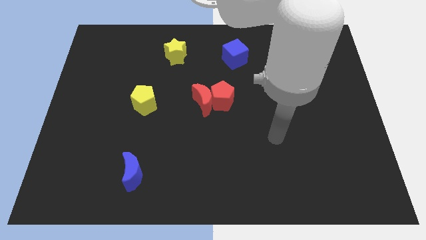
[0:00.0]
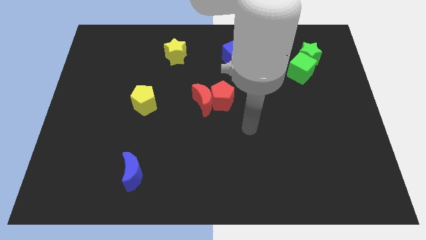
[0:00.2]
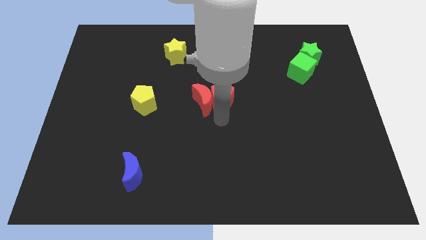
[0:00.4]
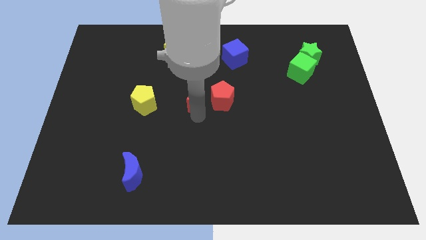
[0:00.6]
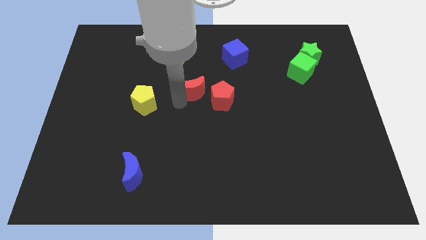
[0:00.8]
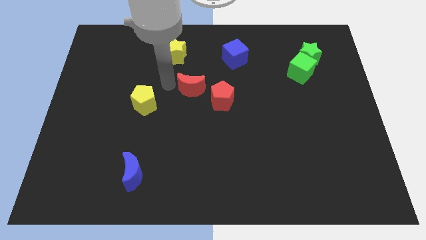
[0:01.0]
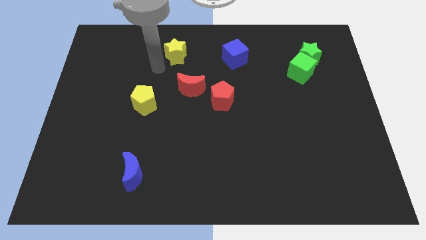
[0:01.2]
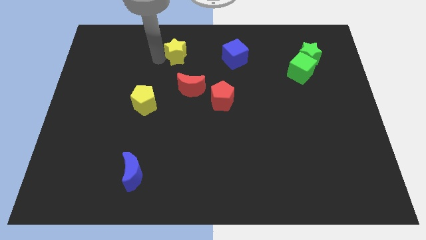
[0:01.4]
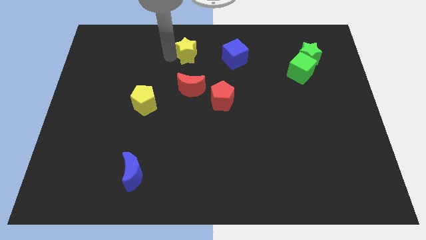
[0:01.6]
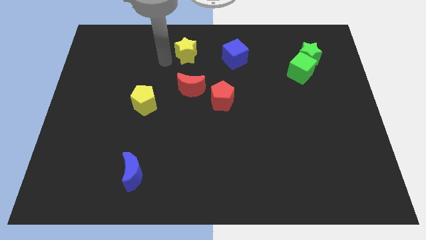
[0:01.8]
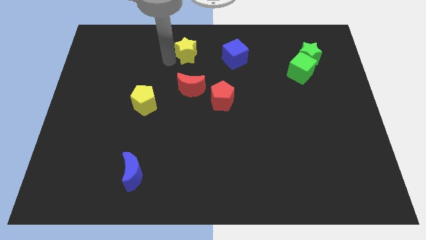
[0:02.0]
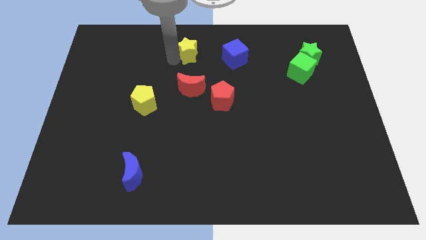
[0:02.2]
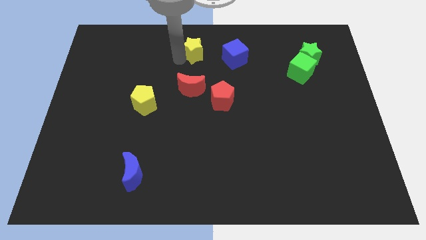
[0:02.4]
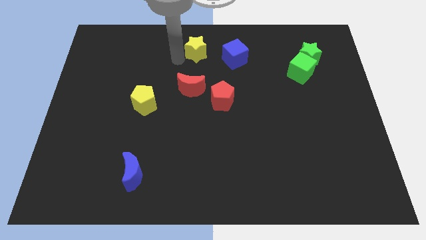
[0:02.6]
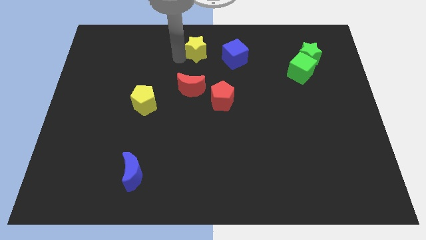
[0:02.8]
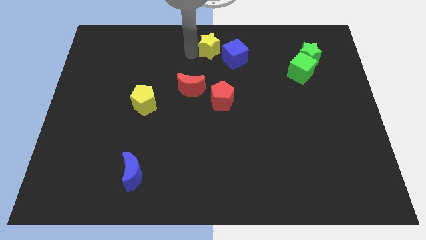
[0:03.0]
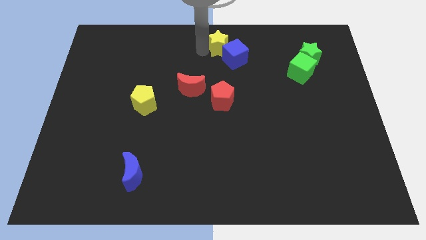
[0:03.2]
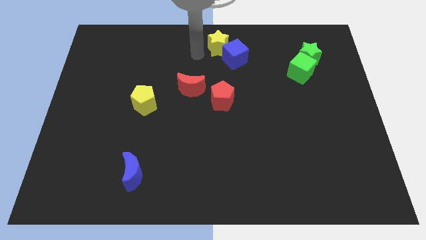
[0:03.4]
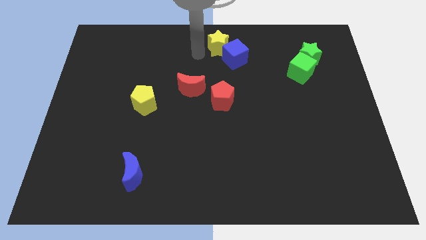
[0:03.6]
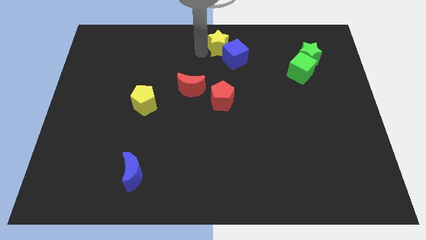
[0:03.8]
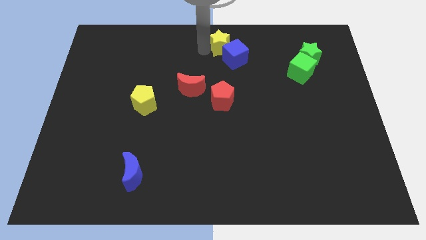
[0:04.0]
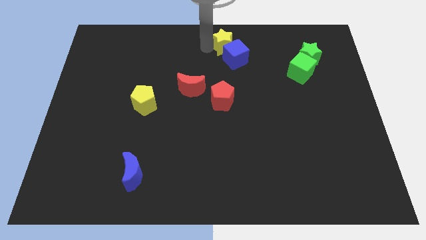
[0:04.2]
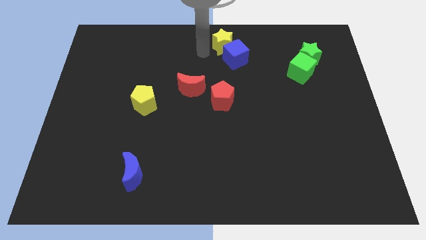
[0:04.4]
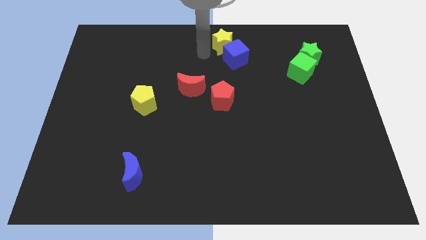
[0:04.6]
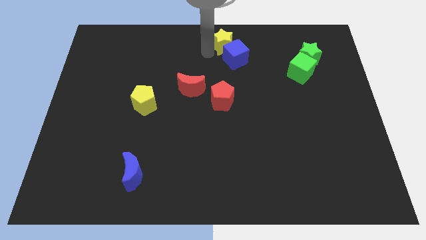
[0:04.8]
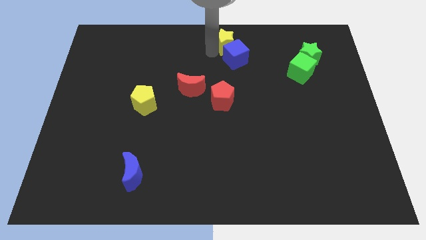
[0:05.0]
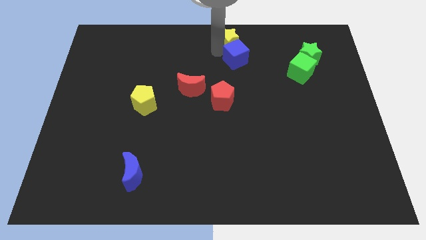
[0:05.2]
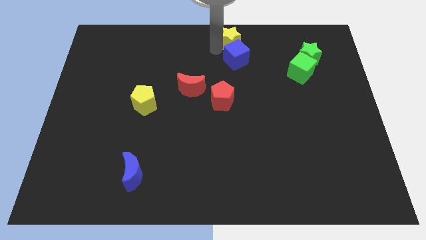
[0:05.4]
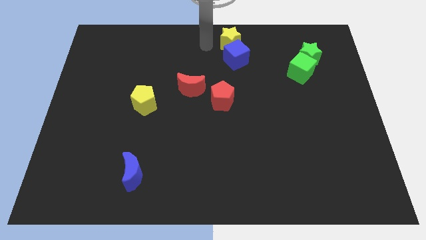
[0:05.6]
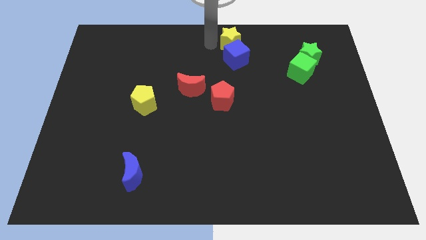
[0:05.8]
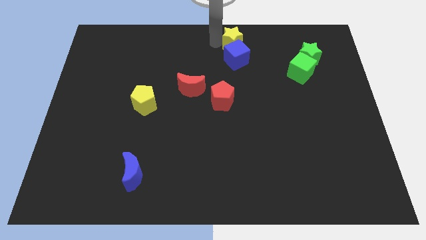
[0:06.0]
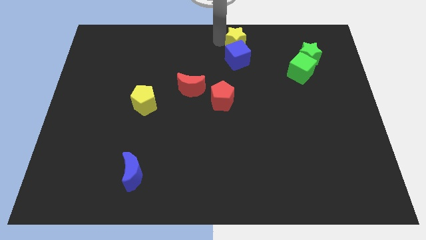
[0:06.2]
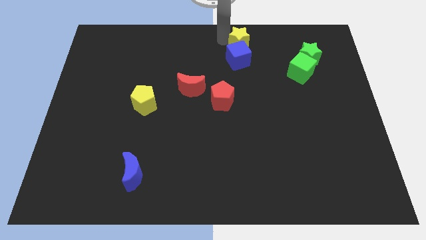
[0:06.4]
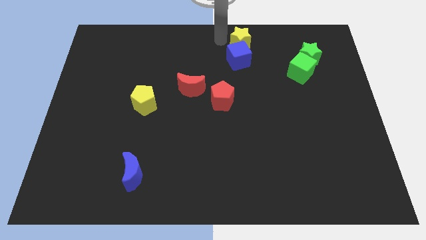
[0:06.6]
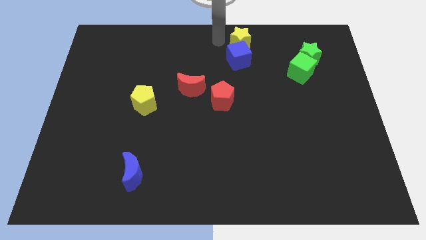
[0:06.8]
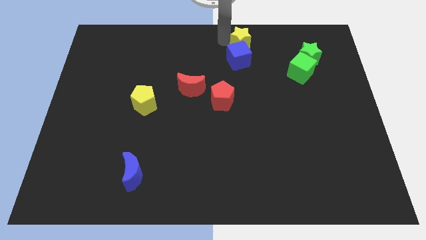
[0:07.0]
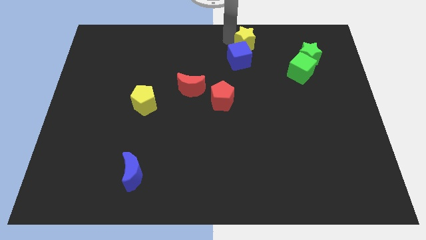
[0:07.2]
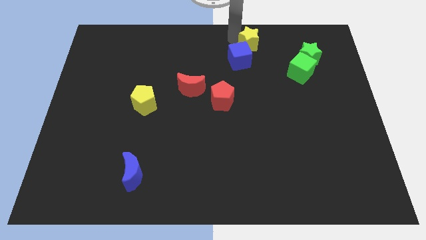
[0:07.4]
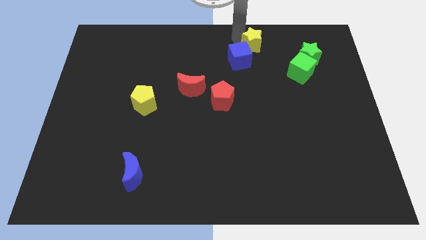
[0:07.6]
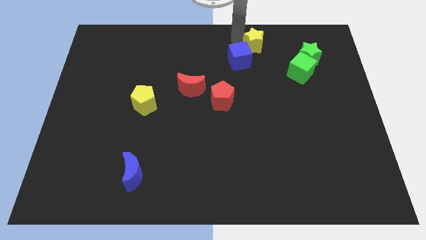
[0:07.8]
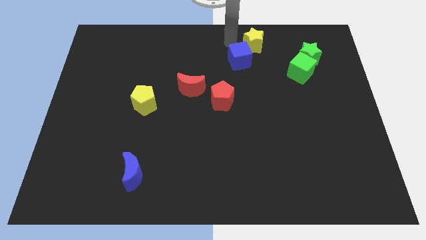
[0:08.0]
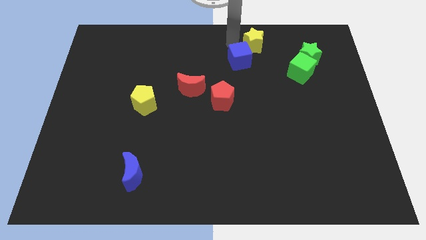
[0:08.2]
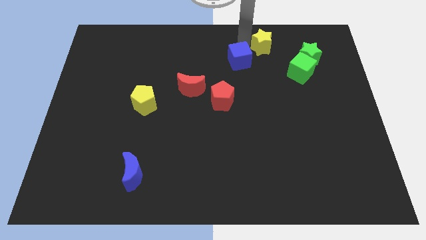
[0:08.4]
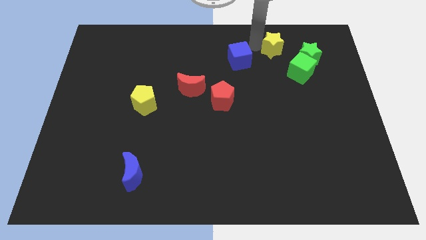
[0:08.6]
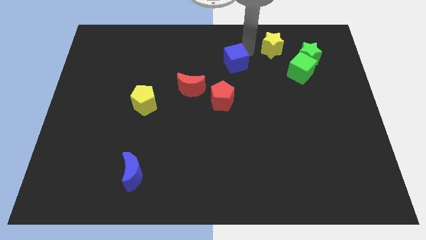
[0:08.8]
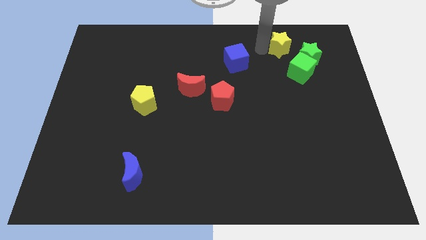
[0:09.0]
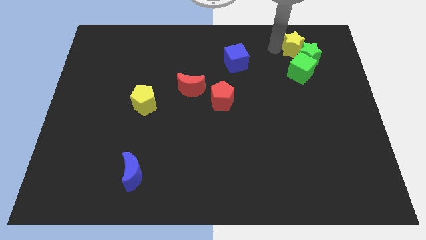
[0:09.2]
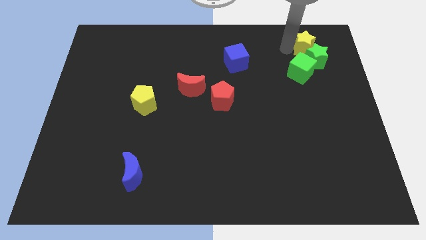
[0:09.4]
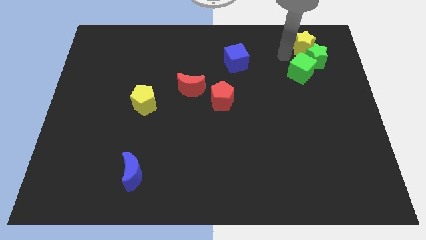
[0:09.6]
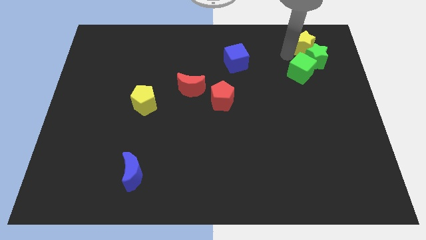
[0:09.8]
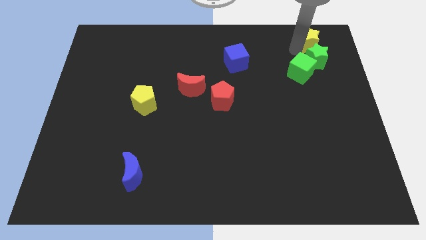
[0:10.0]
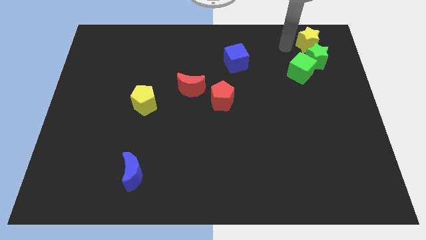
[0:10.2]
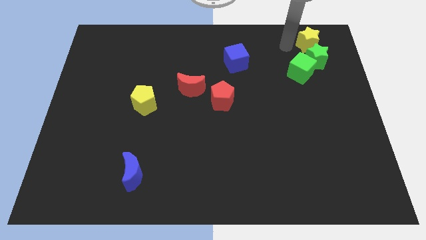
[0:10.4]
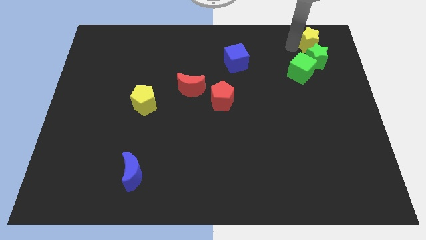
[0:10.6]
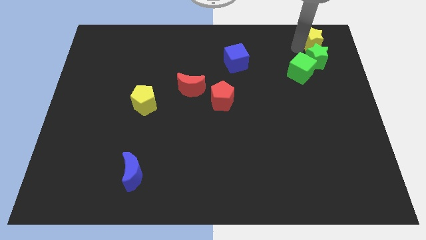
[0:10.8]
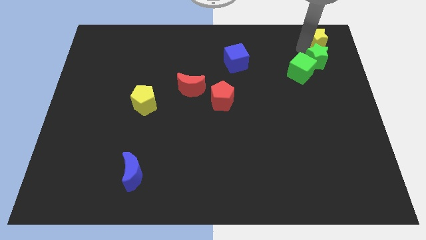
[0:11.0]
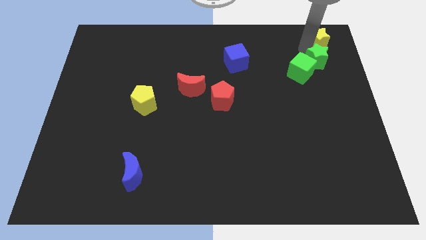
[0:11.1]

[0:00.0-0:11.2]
slide the yellow star to the top right

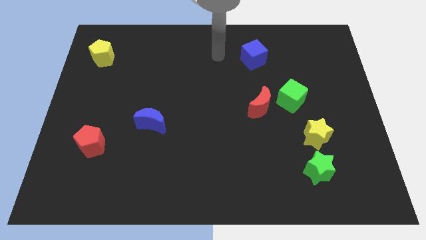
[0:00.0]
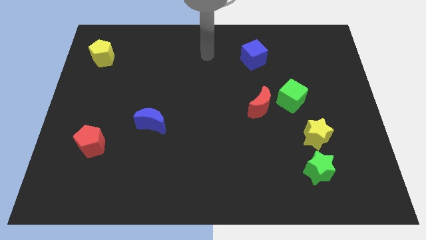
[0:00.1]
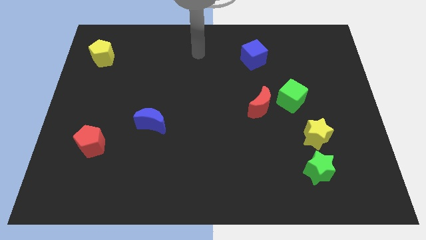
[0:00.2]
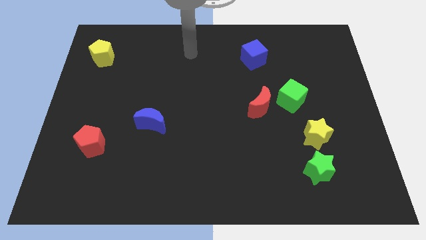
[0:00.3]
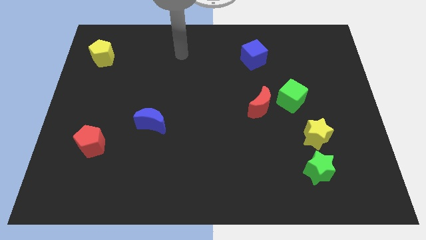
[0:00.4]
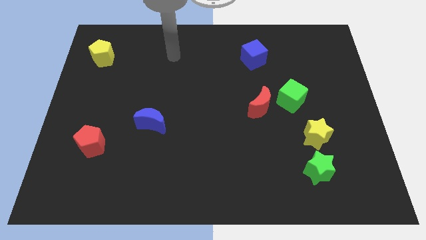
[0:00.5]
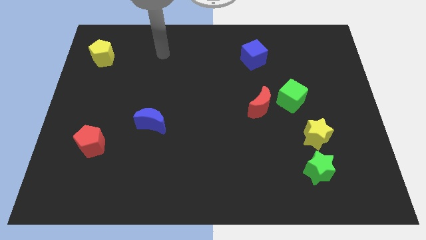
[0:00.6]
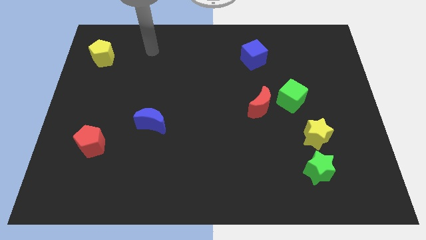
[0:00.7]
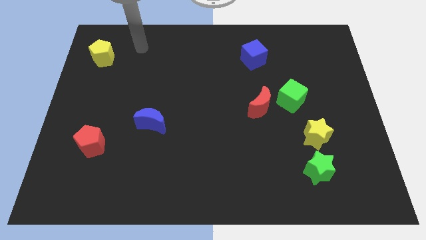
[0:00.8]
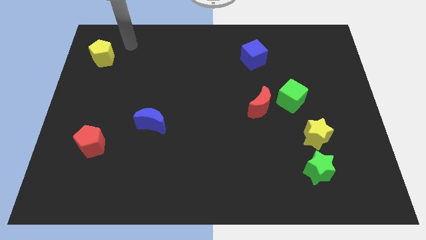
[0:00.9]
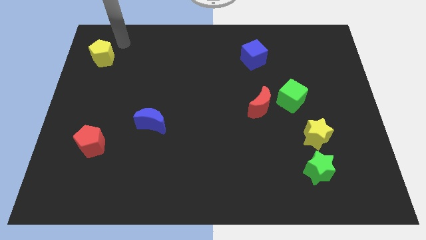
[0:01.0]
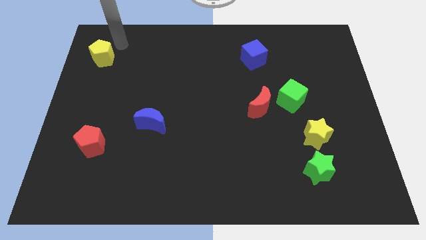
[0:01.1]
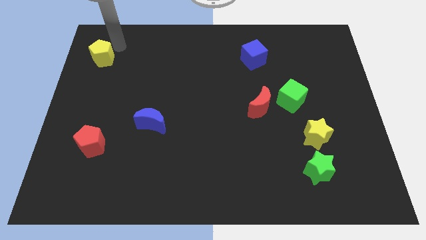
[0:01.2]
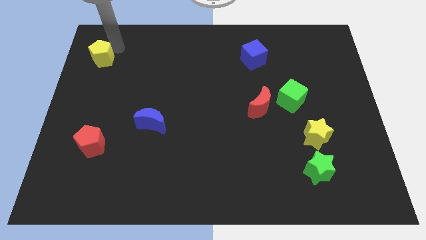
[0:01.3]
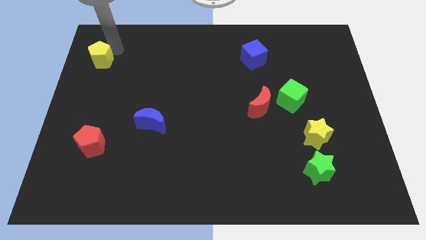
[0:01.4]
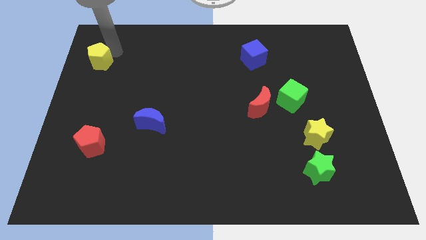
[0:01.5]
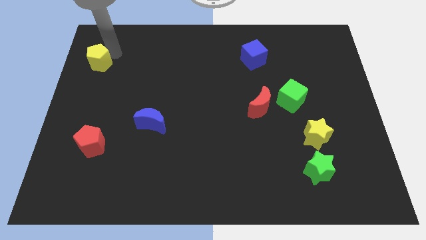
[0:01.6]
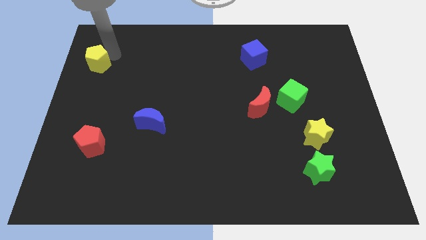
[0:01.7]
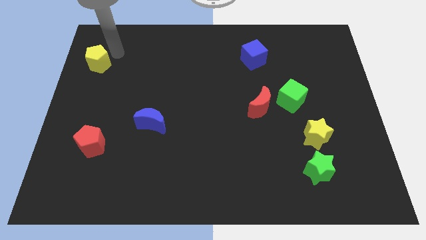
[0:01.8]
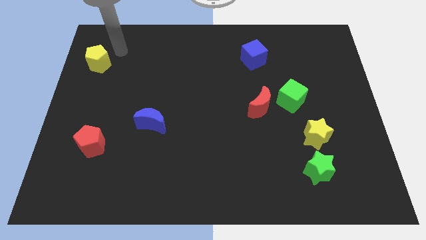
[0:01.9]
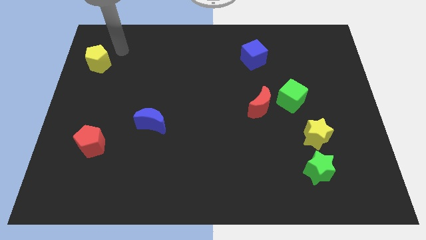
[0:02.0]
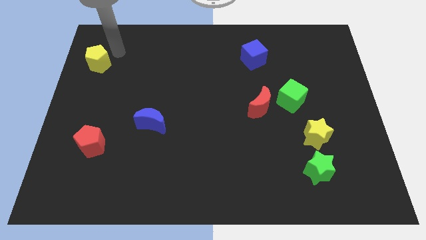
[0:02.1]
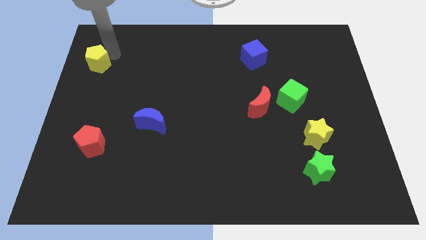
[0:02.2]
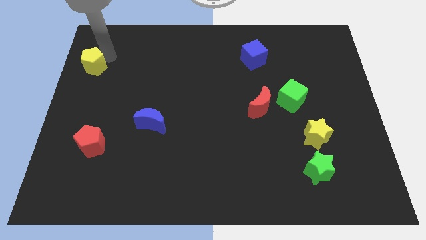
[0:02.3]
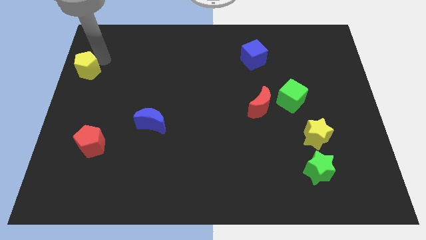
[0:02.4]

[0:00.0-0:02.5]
slide the yellow pentagon to the left side
